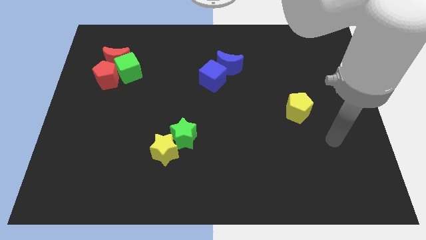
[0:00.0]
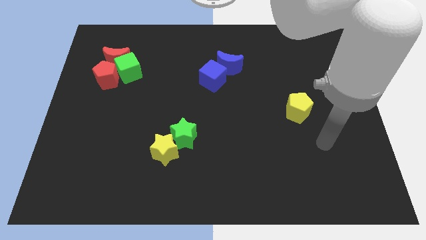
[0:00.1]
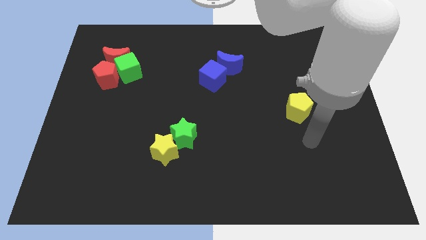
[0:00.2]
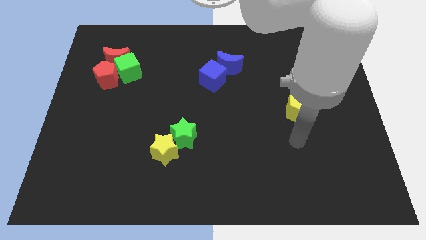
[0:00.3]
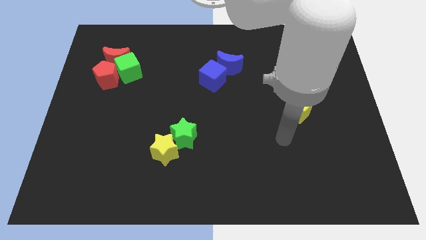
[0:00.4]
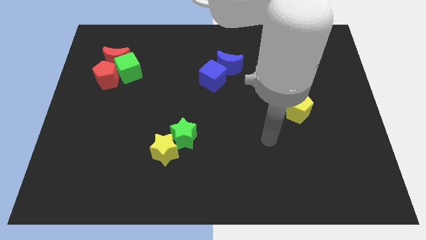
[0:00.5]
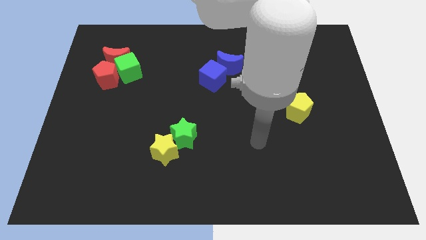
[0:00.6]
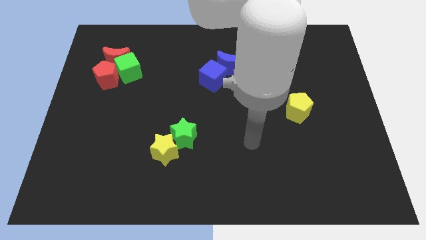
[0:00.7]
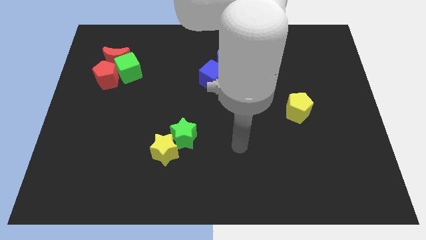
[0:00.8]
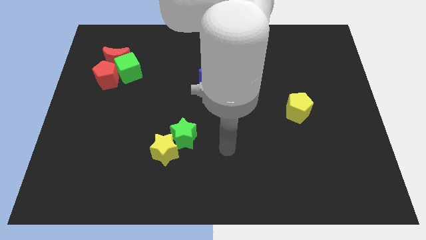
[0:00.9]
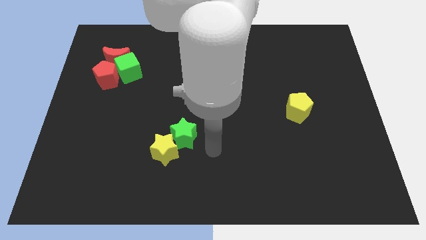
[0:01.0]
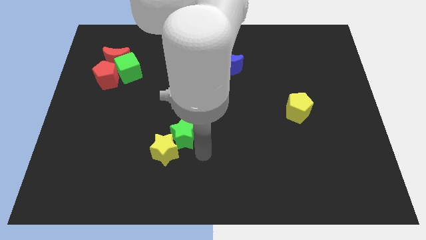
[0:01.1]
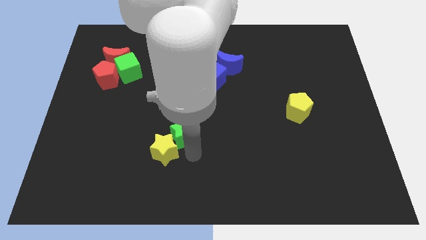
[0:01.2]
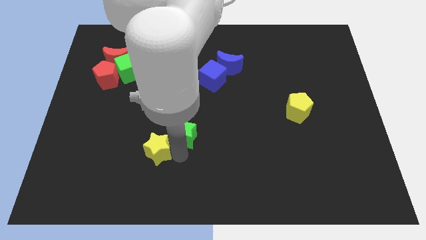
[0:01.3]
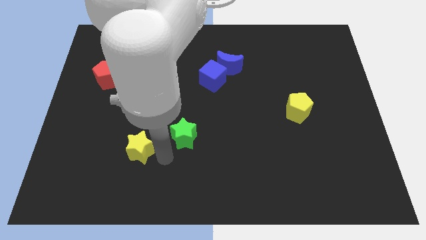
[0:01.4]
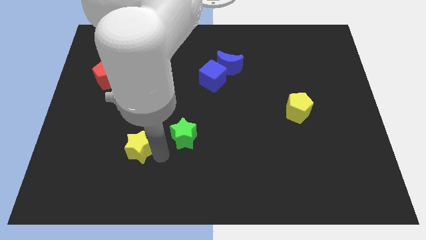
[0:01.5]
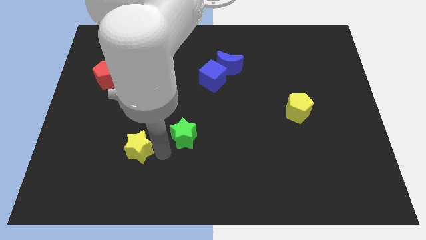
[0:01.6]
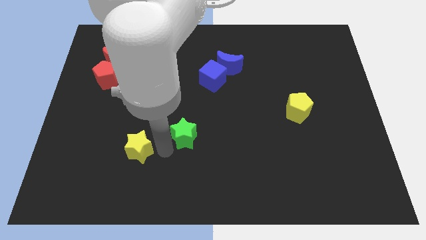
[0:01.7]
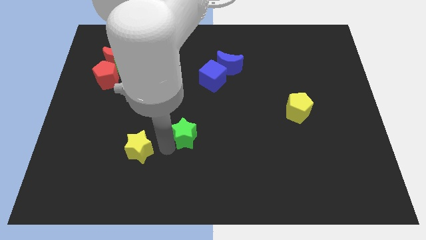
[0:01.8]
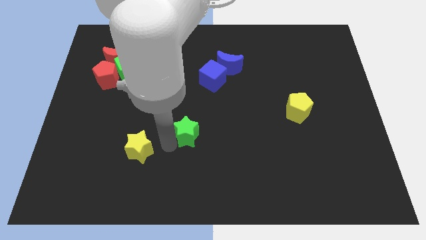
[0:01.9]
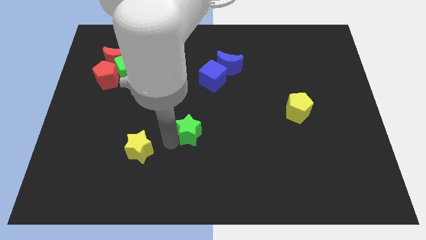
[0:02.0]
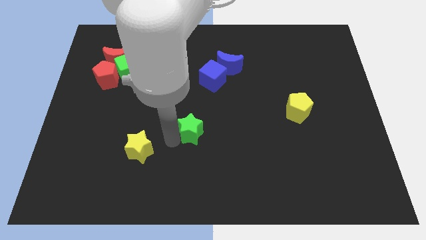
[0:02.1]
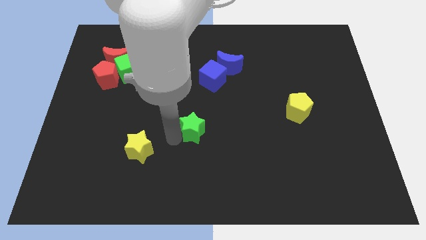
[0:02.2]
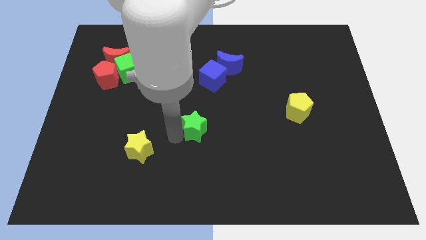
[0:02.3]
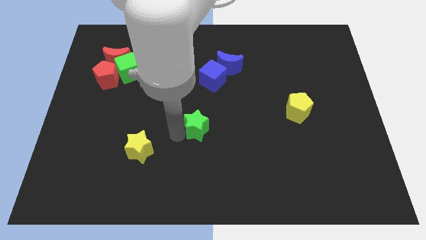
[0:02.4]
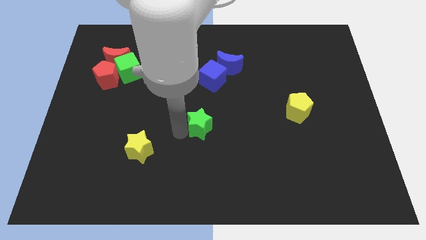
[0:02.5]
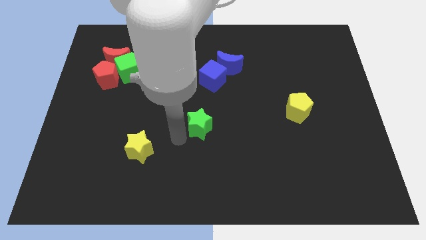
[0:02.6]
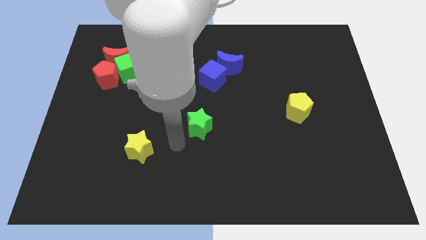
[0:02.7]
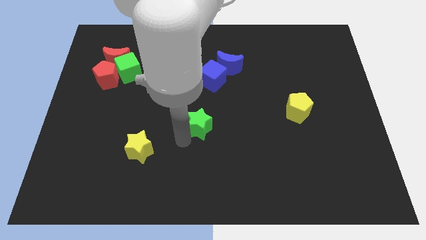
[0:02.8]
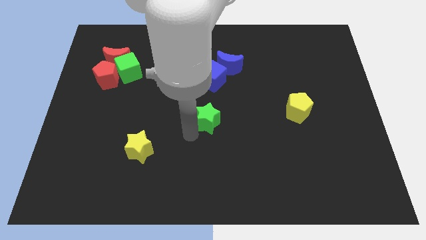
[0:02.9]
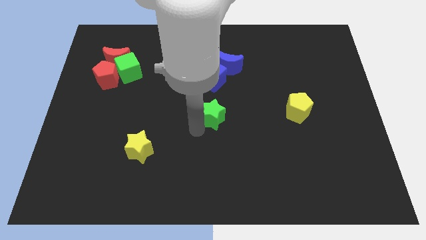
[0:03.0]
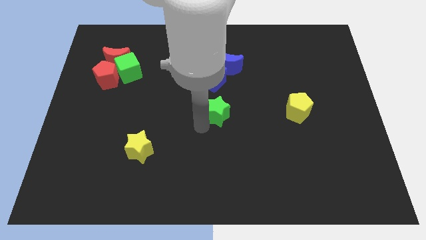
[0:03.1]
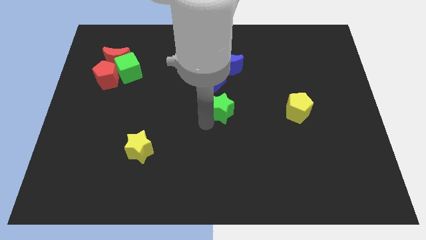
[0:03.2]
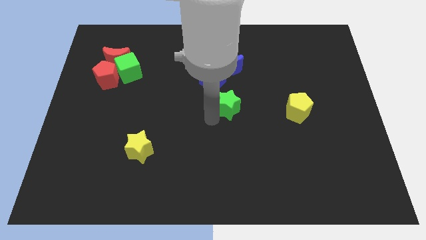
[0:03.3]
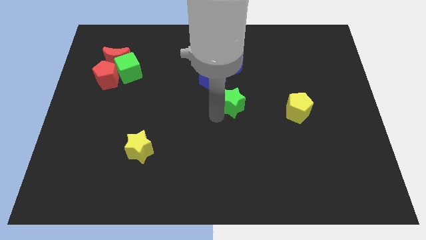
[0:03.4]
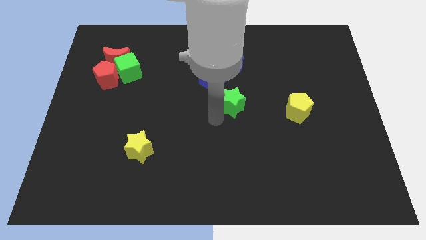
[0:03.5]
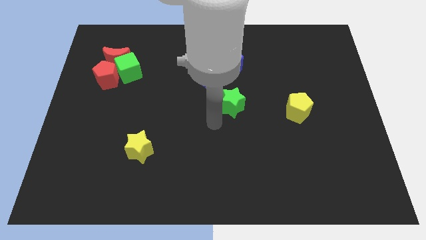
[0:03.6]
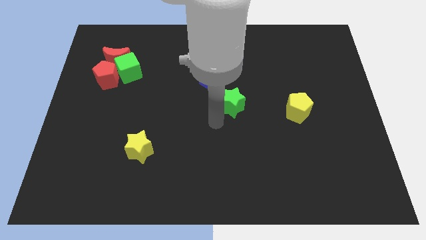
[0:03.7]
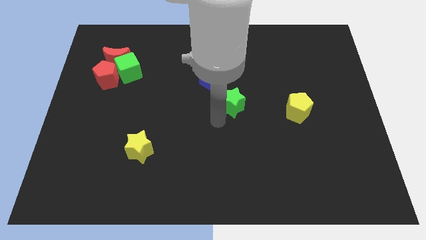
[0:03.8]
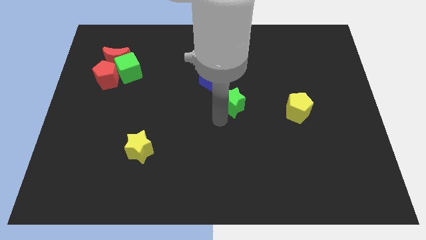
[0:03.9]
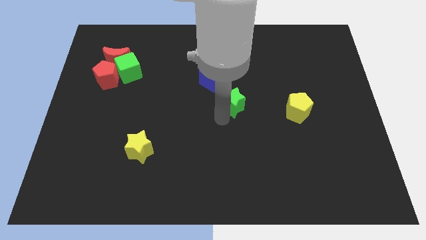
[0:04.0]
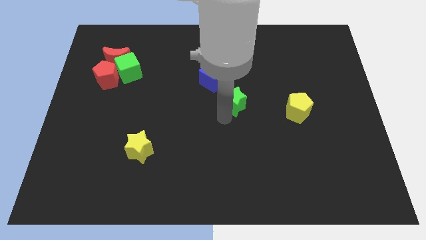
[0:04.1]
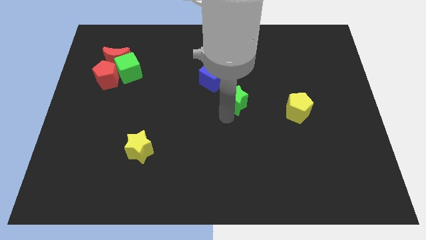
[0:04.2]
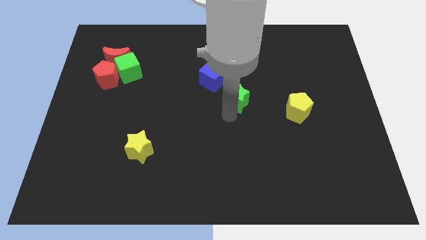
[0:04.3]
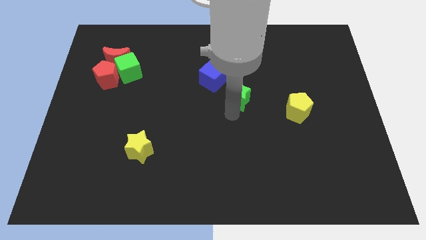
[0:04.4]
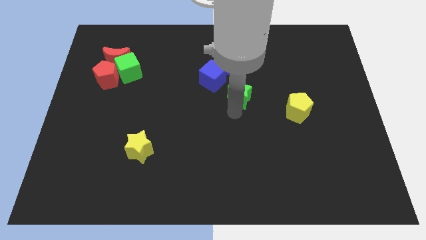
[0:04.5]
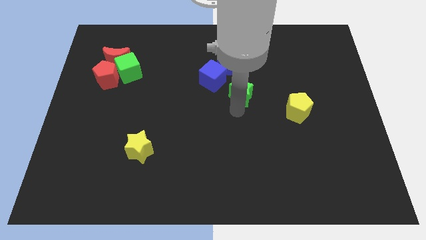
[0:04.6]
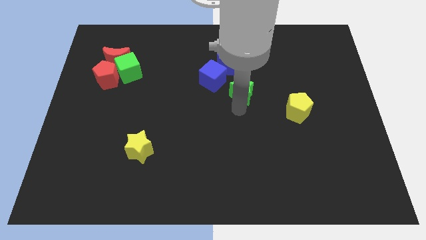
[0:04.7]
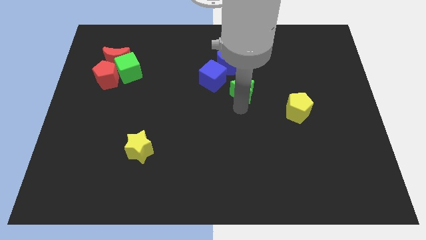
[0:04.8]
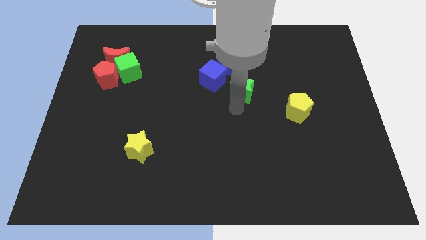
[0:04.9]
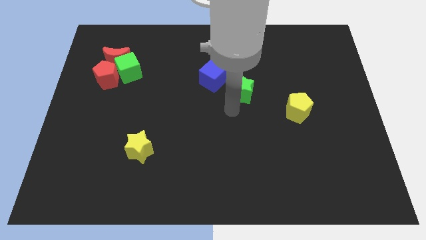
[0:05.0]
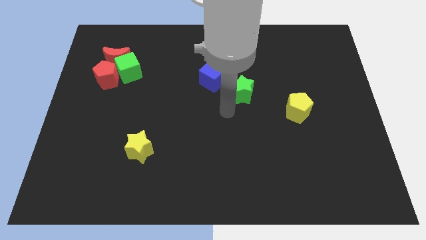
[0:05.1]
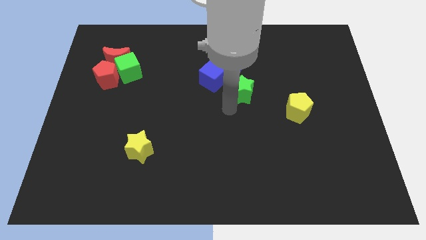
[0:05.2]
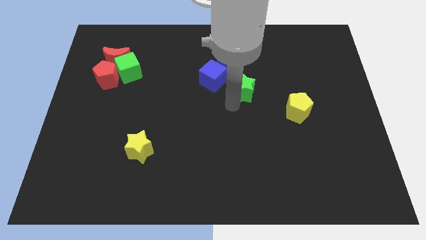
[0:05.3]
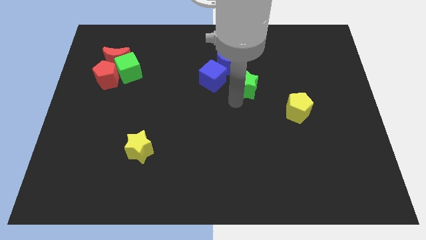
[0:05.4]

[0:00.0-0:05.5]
push the green star diagonally up and to the right

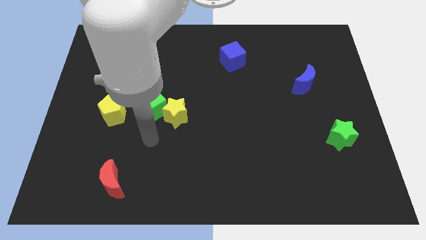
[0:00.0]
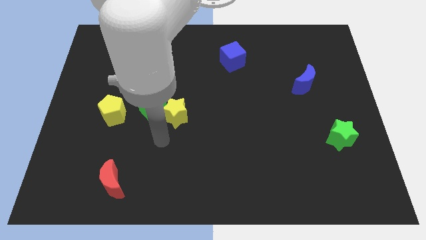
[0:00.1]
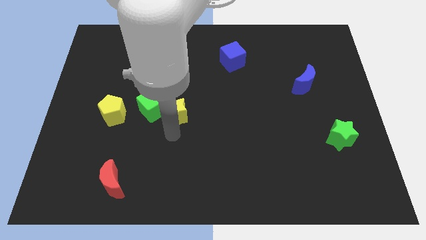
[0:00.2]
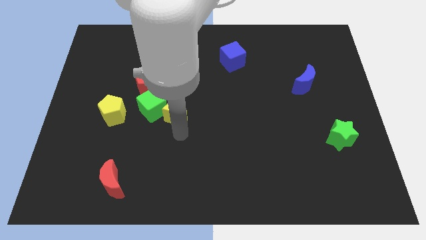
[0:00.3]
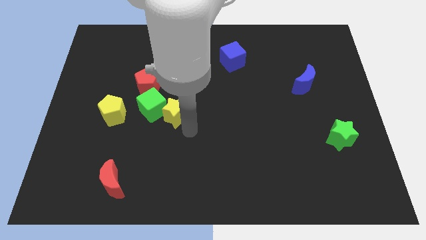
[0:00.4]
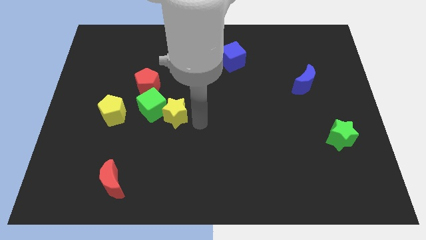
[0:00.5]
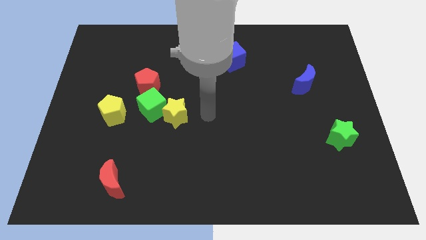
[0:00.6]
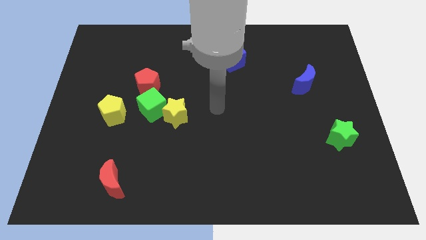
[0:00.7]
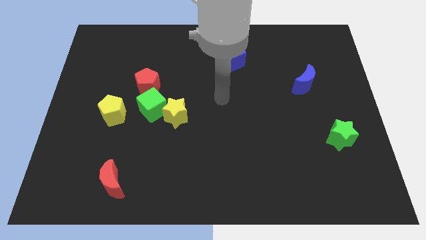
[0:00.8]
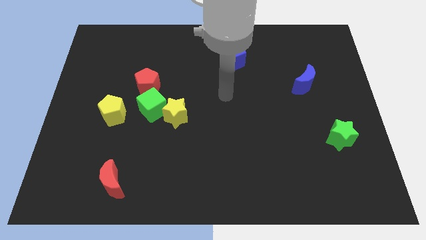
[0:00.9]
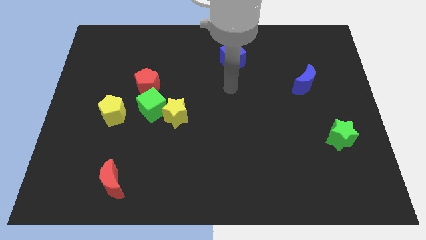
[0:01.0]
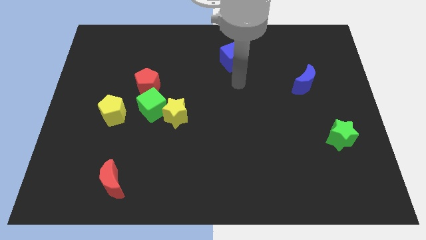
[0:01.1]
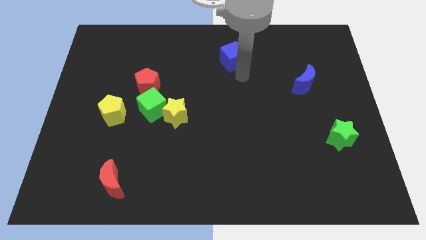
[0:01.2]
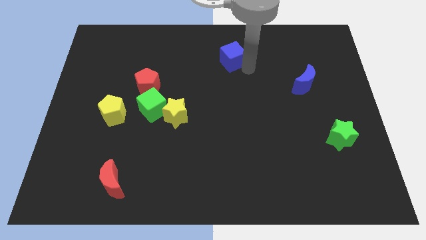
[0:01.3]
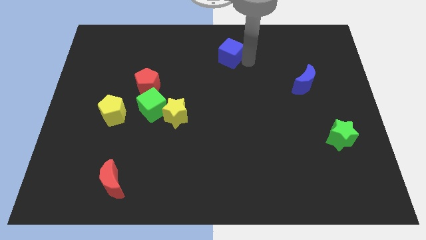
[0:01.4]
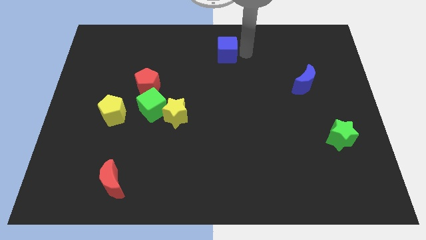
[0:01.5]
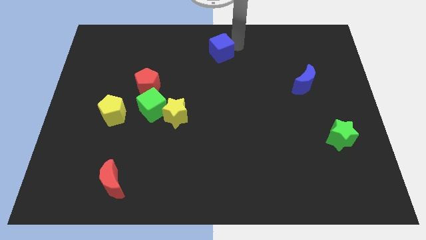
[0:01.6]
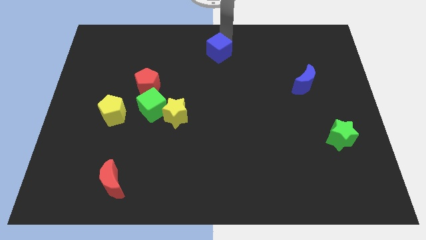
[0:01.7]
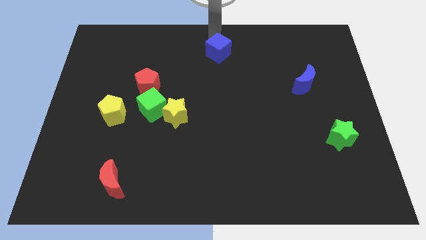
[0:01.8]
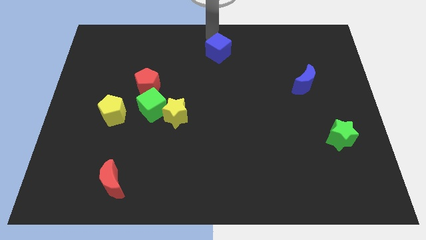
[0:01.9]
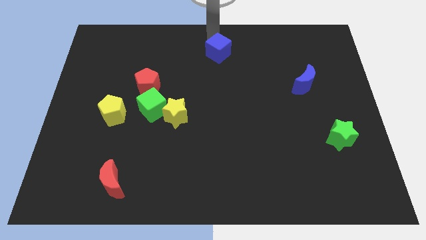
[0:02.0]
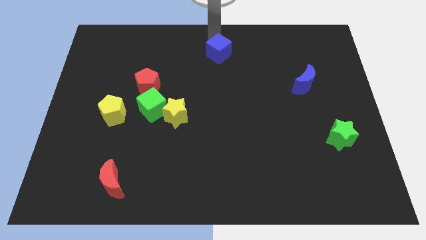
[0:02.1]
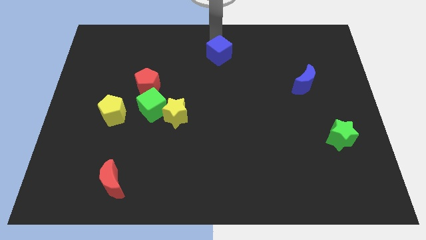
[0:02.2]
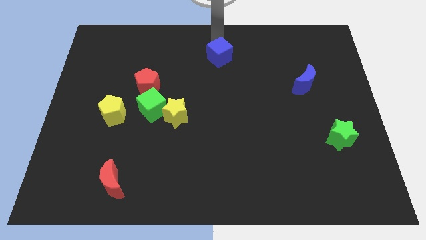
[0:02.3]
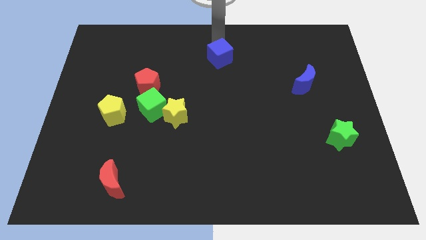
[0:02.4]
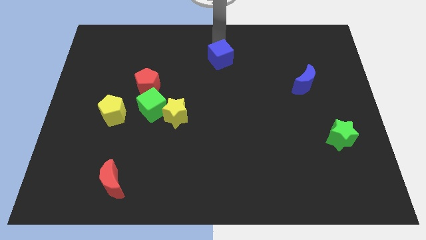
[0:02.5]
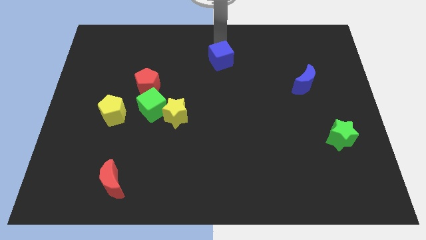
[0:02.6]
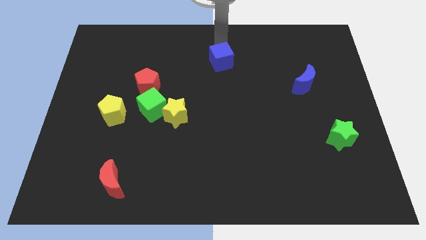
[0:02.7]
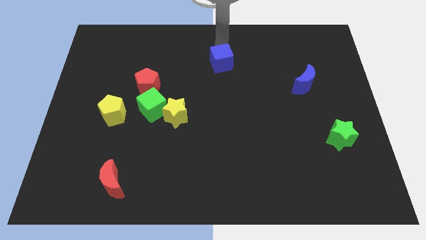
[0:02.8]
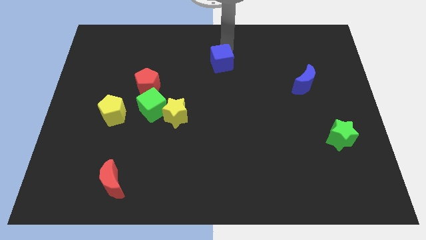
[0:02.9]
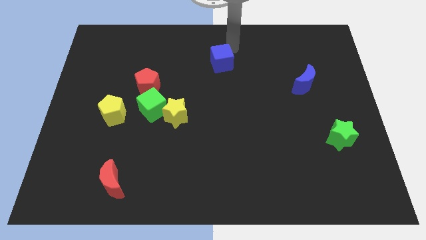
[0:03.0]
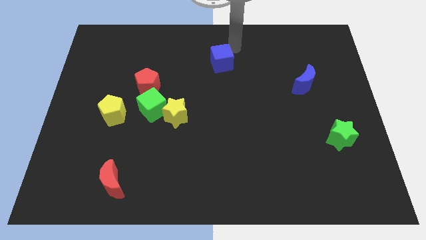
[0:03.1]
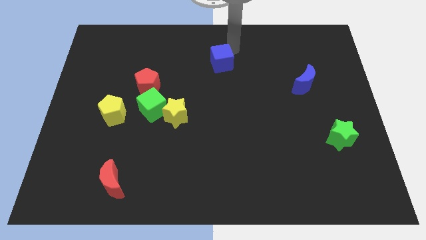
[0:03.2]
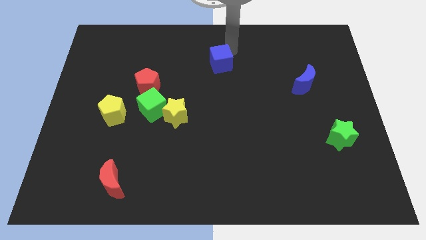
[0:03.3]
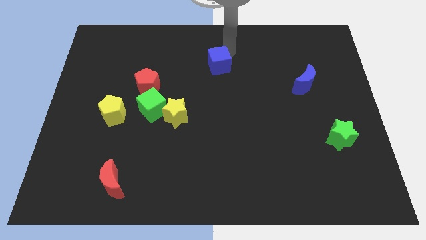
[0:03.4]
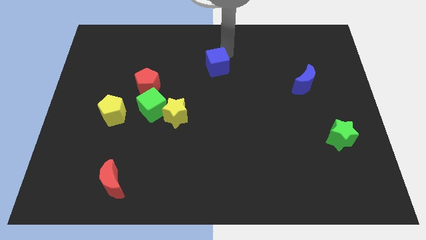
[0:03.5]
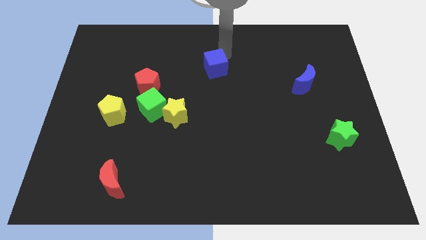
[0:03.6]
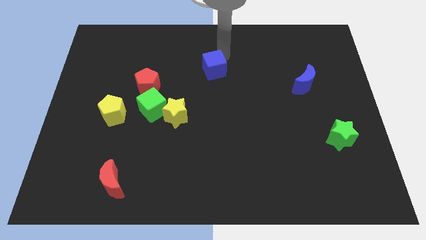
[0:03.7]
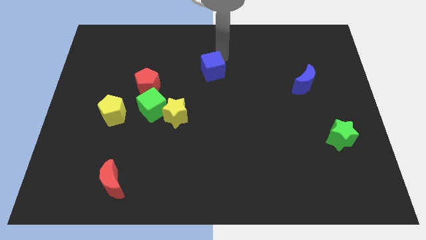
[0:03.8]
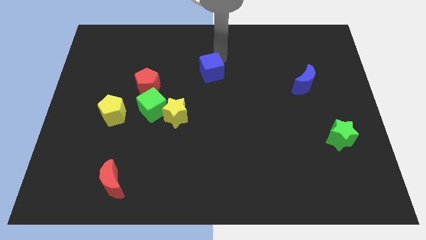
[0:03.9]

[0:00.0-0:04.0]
slightly move the blue cube down and to the left diagonally
